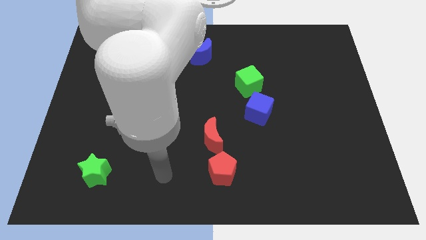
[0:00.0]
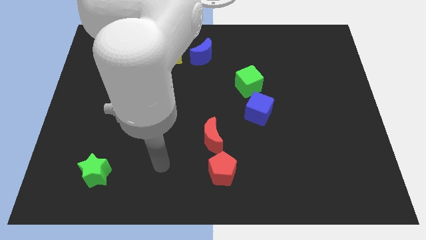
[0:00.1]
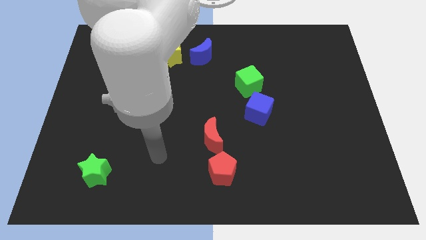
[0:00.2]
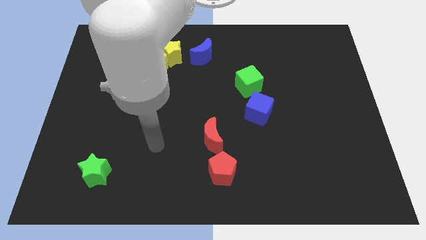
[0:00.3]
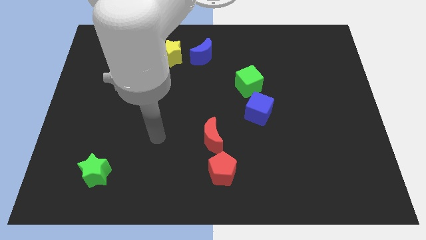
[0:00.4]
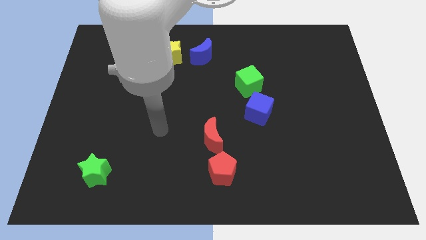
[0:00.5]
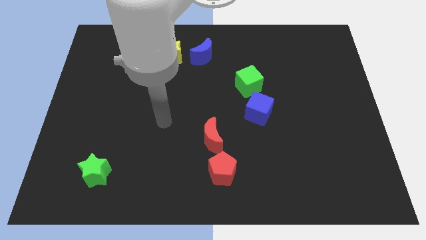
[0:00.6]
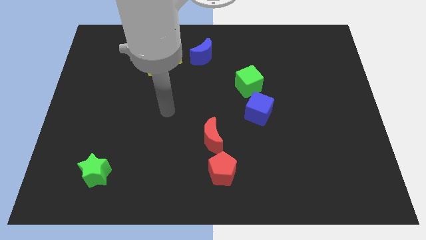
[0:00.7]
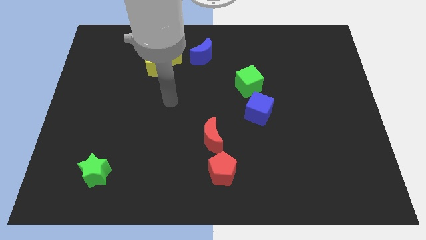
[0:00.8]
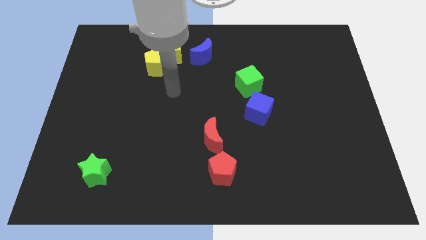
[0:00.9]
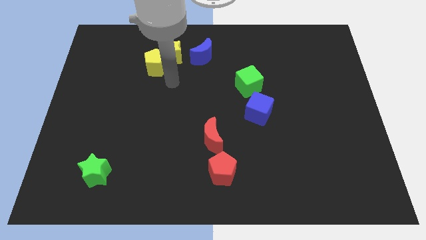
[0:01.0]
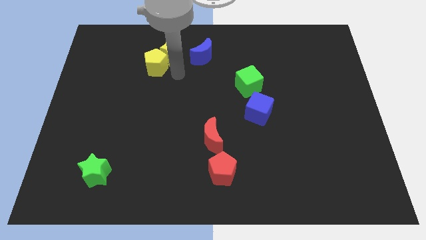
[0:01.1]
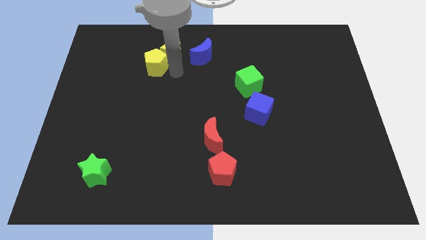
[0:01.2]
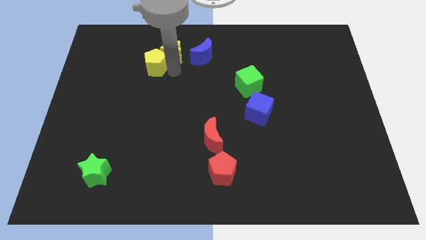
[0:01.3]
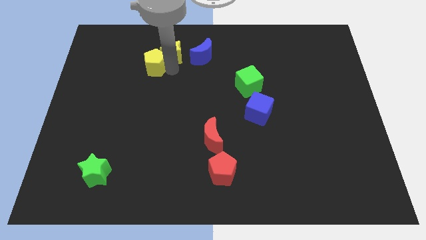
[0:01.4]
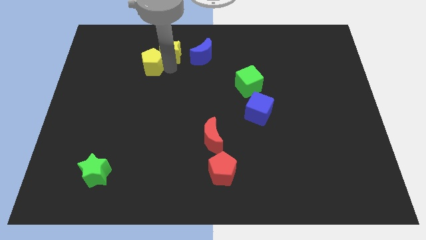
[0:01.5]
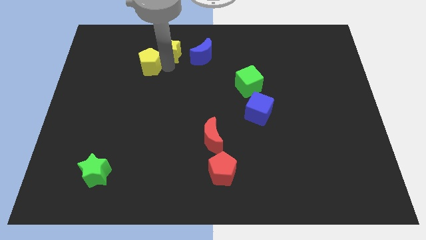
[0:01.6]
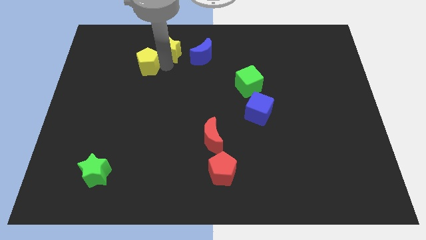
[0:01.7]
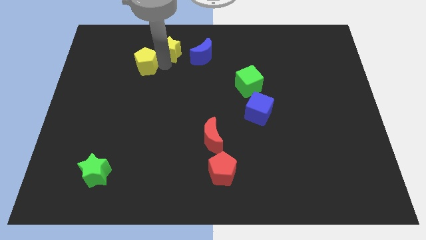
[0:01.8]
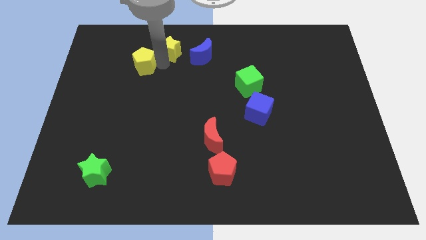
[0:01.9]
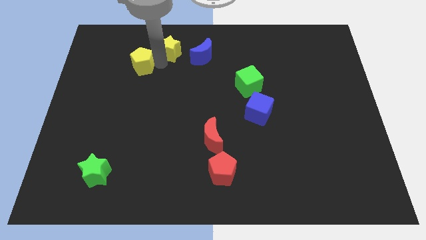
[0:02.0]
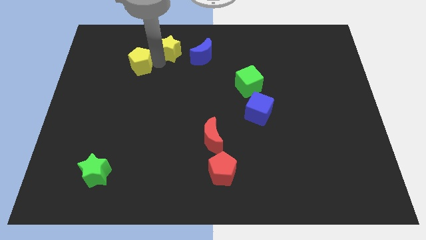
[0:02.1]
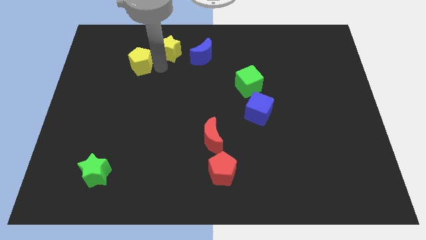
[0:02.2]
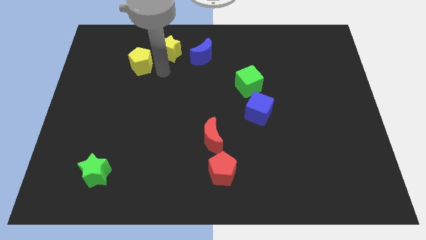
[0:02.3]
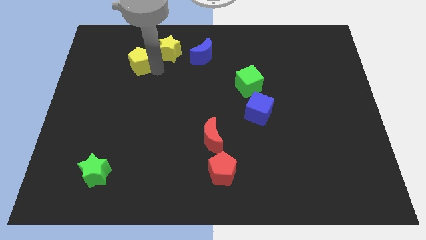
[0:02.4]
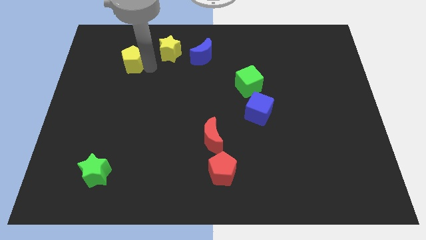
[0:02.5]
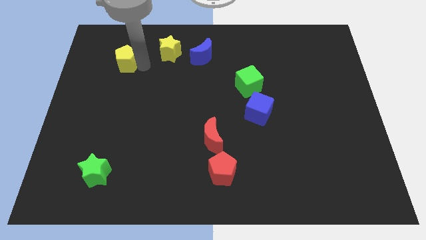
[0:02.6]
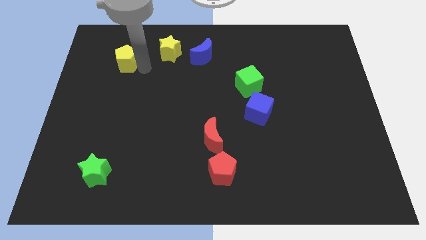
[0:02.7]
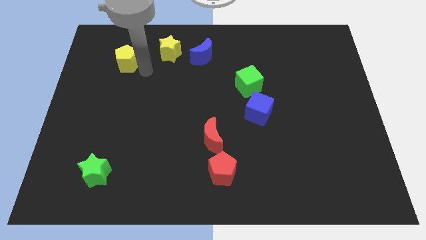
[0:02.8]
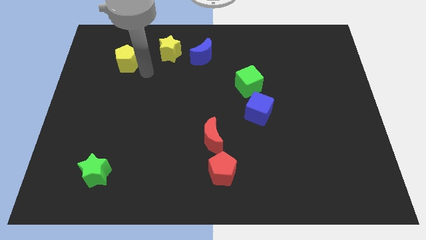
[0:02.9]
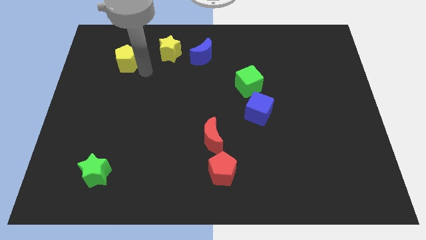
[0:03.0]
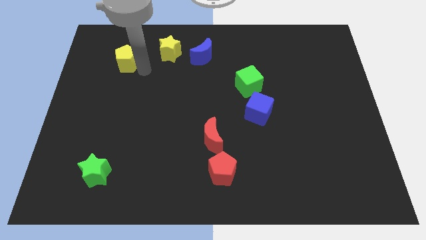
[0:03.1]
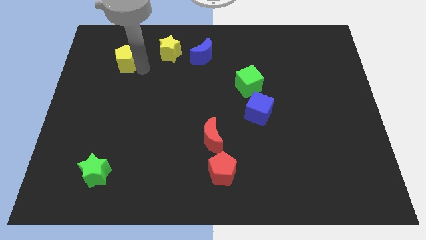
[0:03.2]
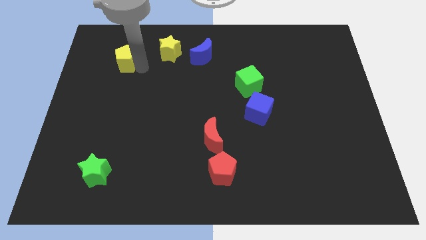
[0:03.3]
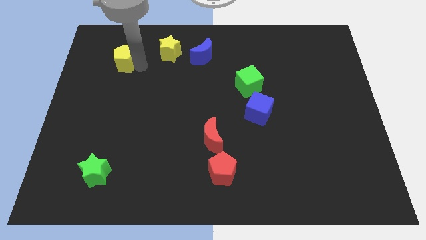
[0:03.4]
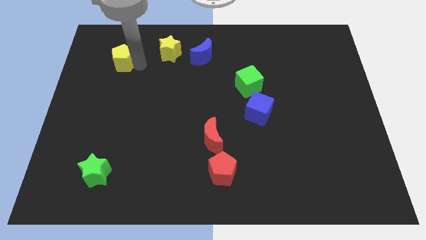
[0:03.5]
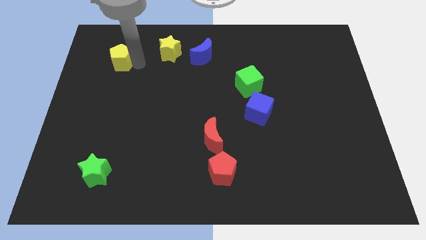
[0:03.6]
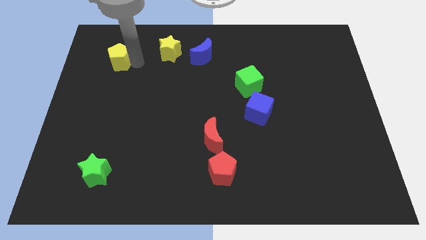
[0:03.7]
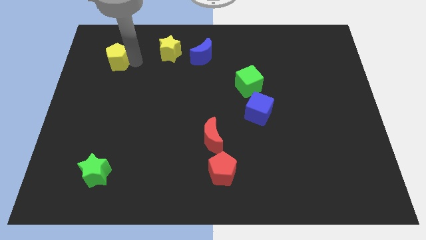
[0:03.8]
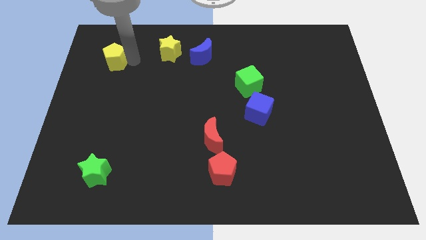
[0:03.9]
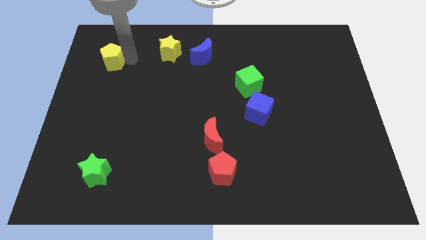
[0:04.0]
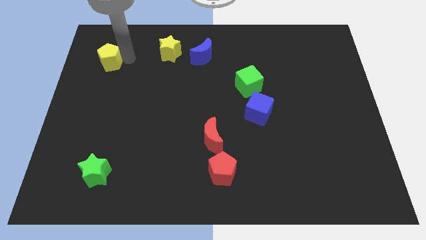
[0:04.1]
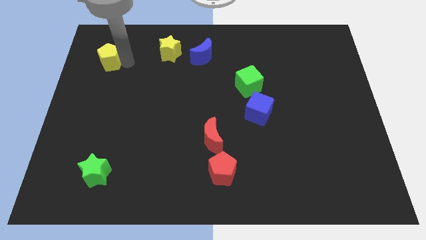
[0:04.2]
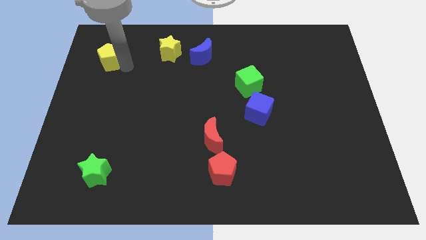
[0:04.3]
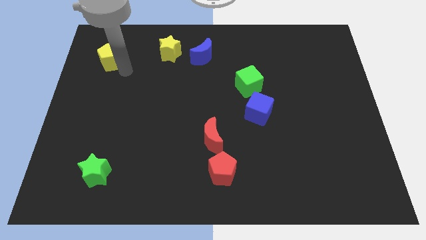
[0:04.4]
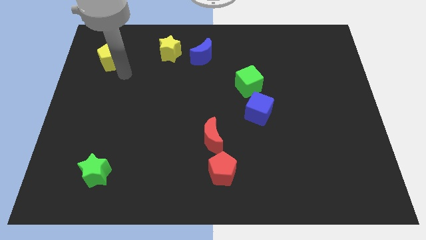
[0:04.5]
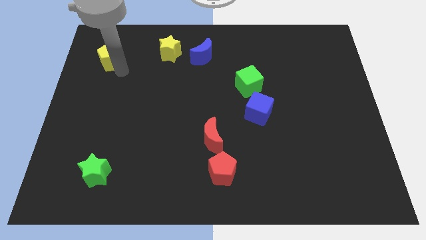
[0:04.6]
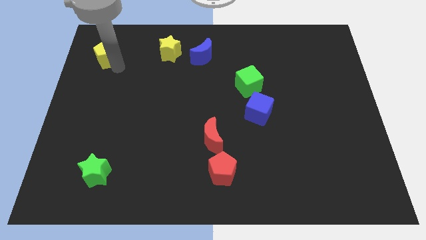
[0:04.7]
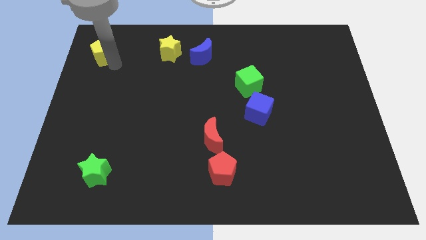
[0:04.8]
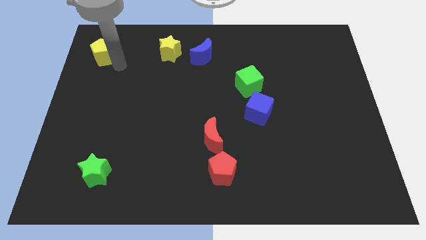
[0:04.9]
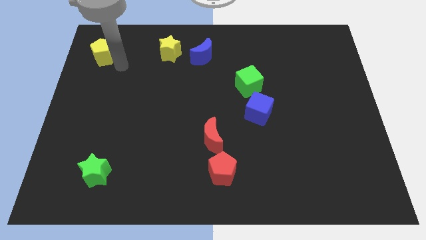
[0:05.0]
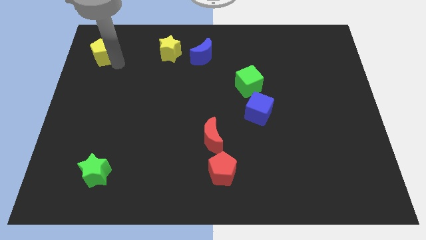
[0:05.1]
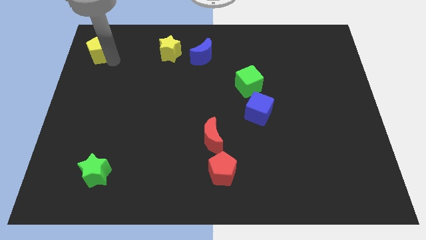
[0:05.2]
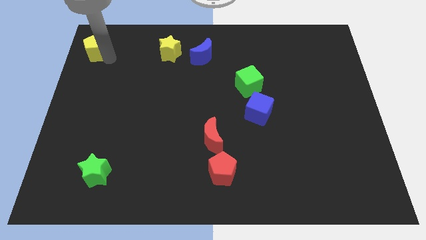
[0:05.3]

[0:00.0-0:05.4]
move the yellow pentagon to the top left corner

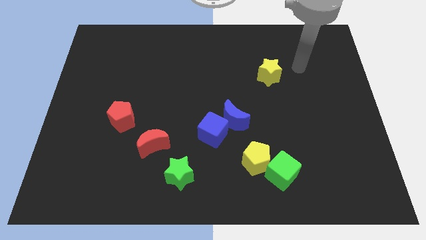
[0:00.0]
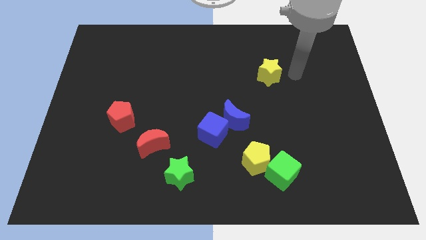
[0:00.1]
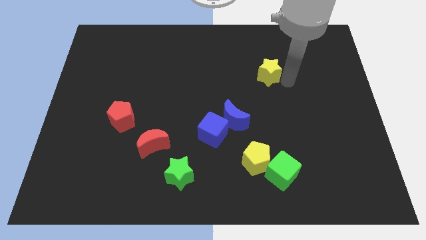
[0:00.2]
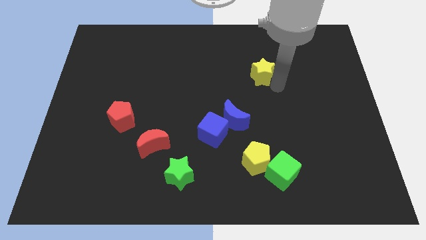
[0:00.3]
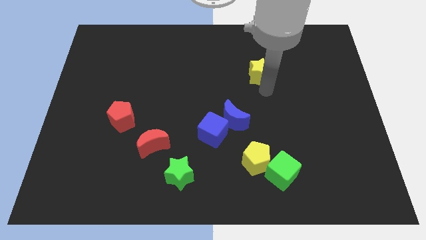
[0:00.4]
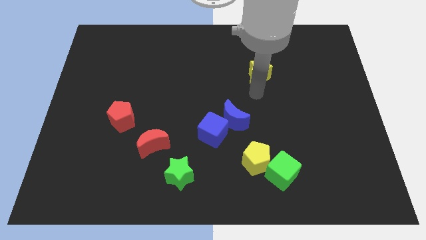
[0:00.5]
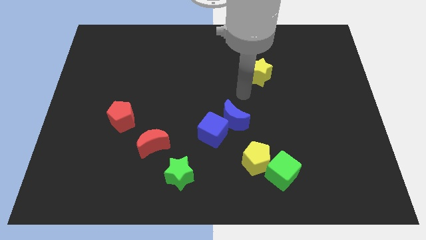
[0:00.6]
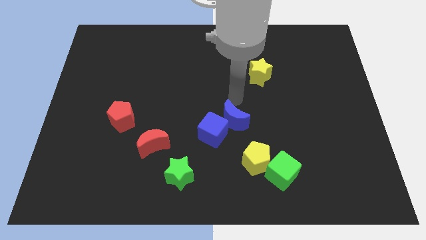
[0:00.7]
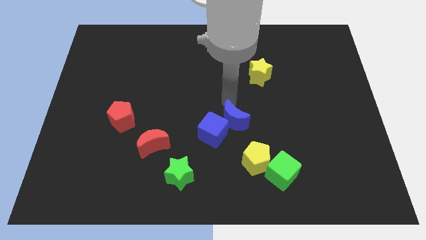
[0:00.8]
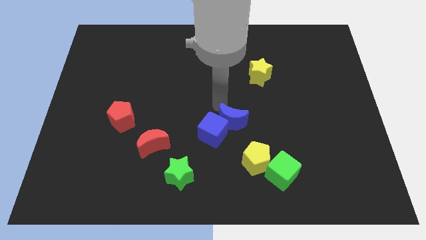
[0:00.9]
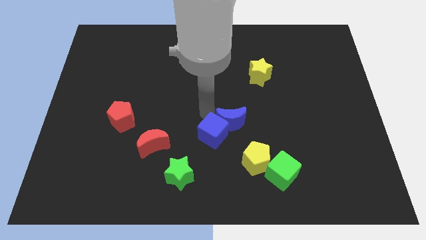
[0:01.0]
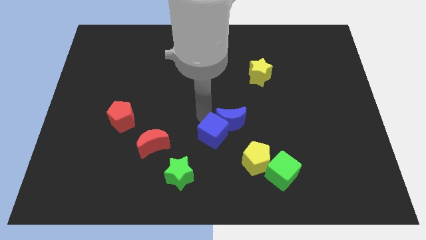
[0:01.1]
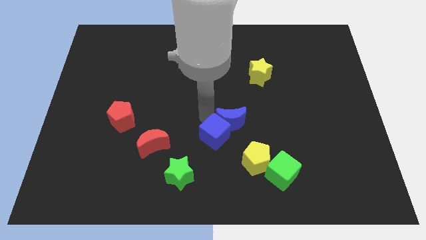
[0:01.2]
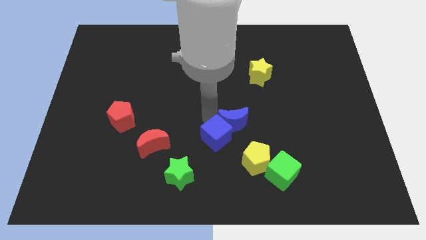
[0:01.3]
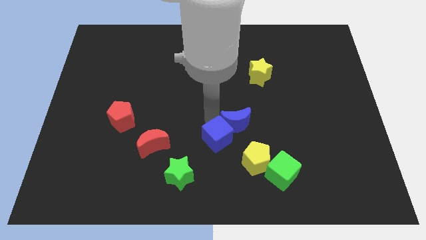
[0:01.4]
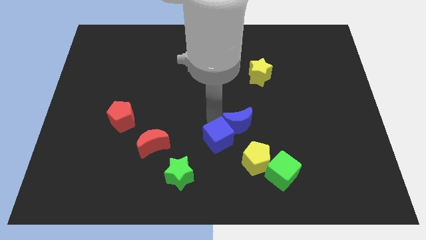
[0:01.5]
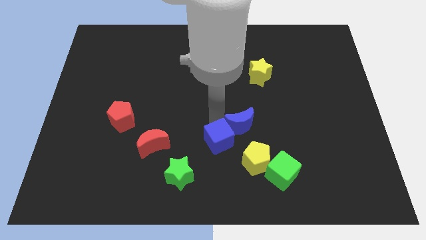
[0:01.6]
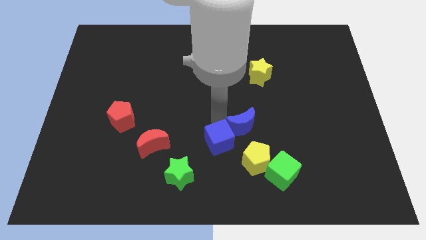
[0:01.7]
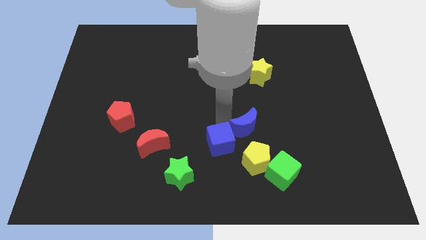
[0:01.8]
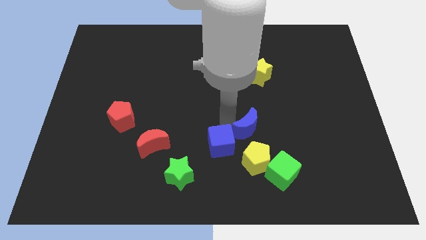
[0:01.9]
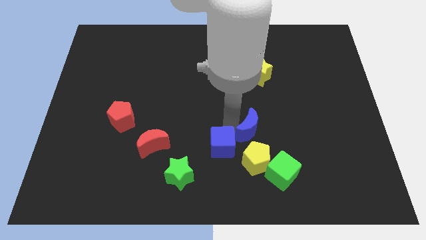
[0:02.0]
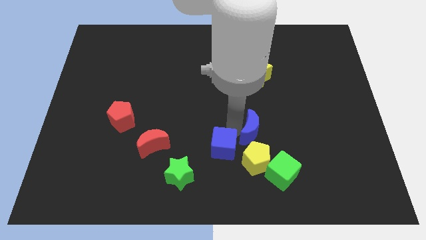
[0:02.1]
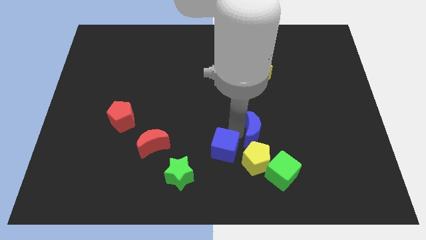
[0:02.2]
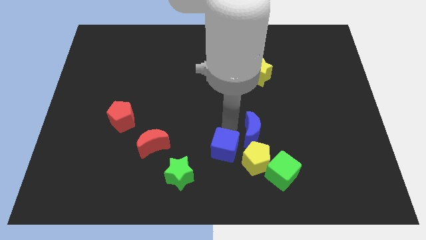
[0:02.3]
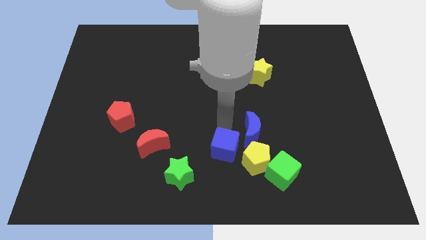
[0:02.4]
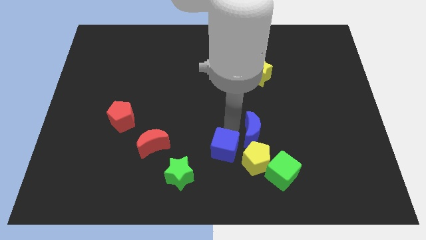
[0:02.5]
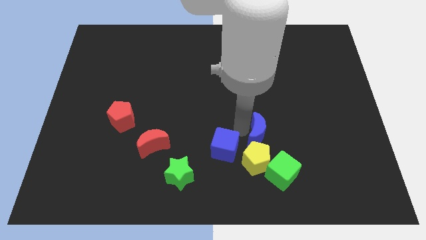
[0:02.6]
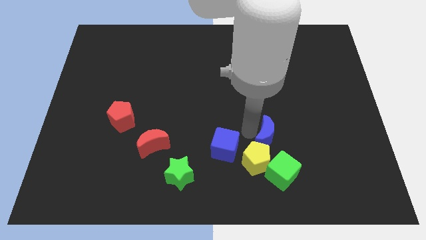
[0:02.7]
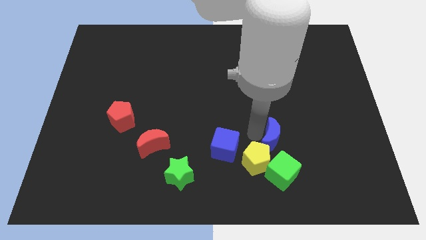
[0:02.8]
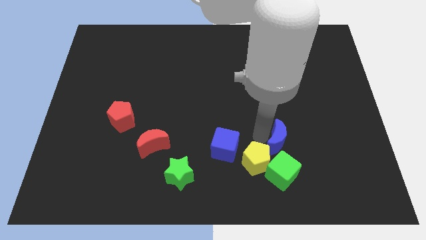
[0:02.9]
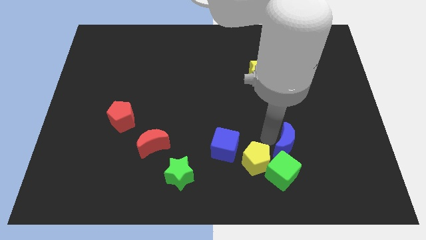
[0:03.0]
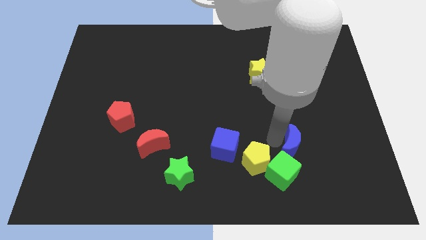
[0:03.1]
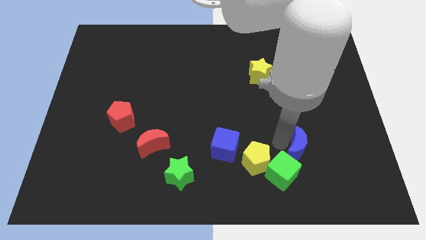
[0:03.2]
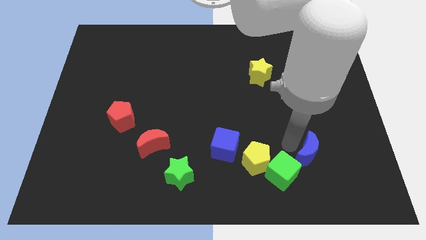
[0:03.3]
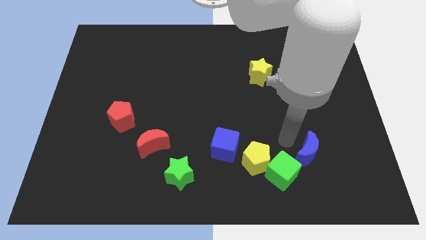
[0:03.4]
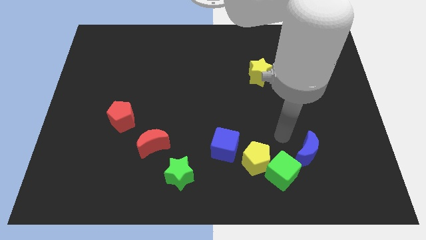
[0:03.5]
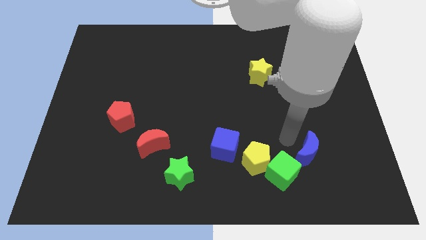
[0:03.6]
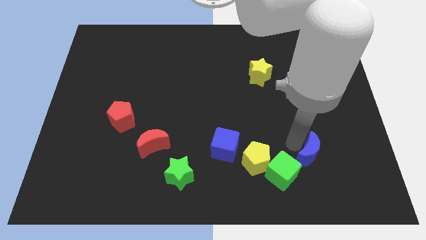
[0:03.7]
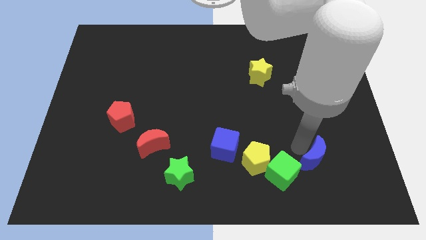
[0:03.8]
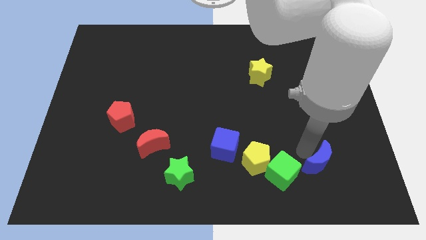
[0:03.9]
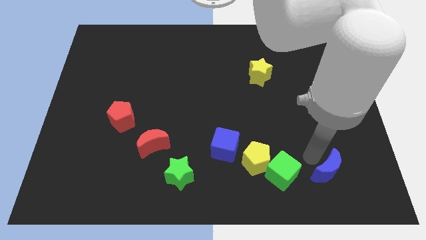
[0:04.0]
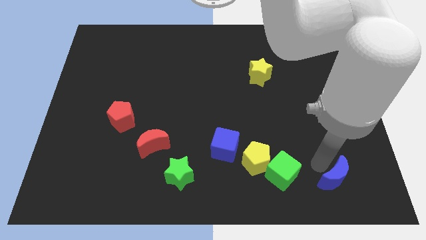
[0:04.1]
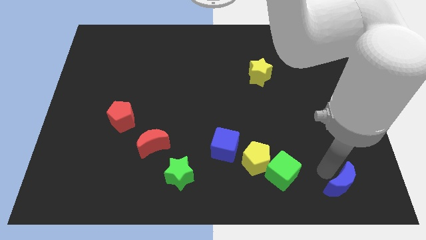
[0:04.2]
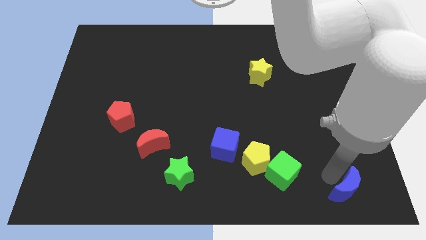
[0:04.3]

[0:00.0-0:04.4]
move the blue moon to the bottom right corner
